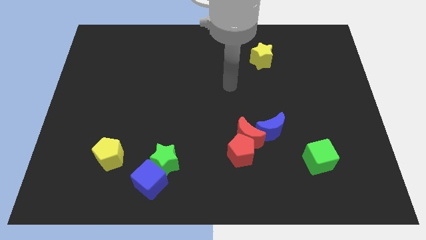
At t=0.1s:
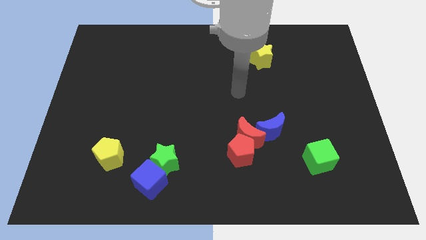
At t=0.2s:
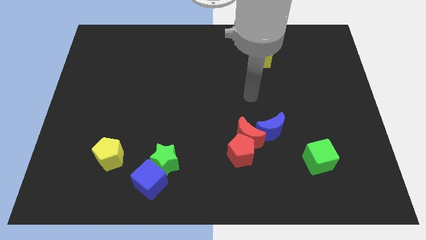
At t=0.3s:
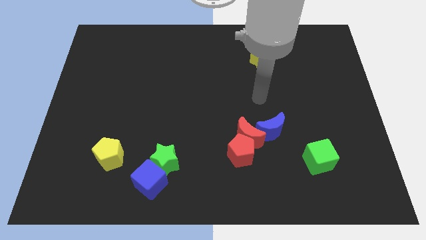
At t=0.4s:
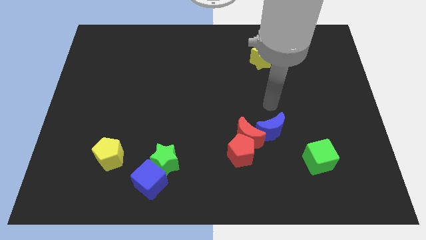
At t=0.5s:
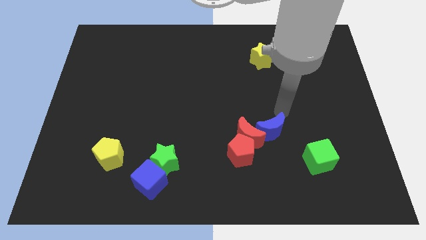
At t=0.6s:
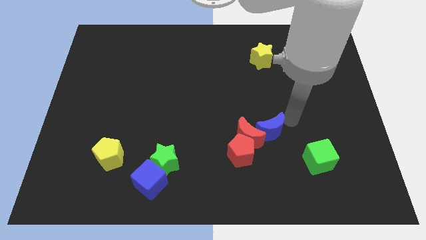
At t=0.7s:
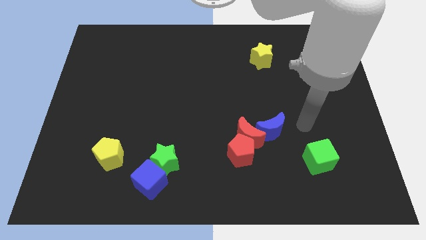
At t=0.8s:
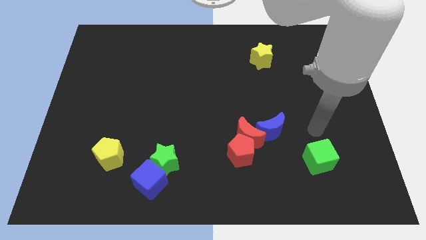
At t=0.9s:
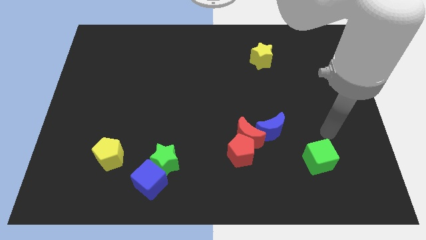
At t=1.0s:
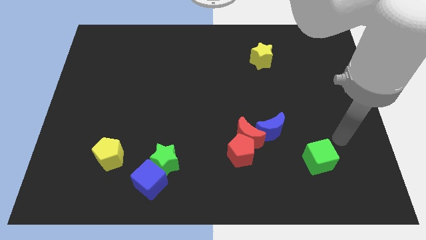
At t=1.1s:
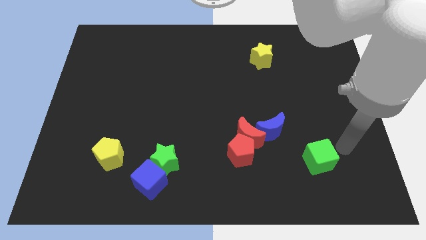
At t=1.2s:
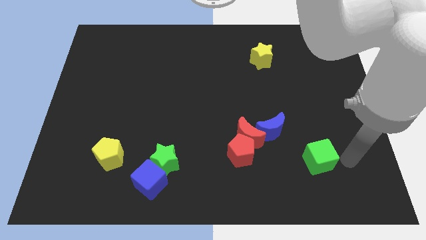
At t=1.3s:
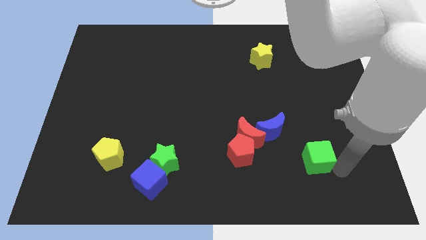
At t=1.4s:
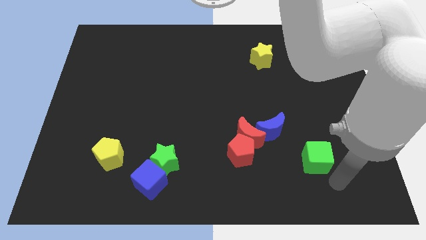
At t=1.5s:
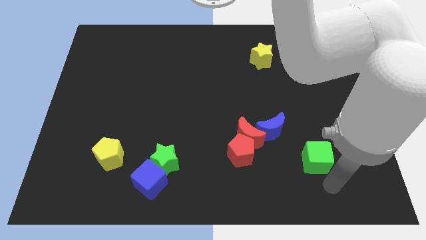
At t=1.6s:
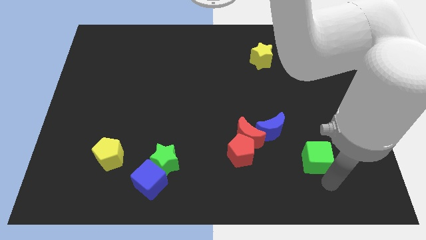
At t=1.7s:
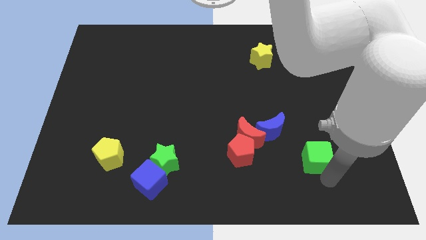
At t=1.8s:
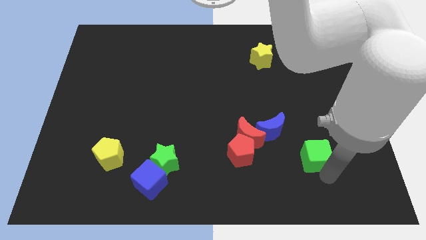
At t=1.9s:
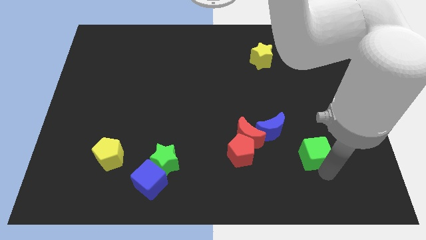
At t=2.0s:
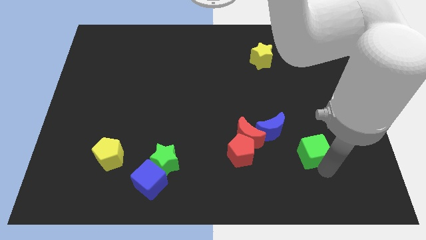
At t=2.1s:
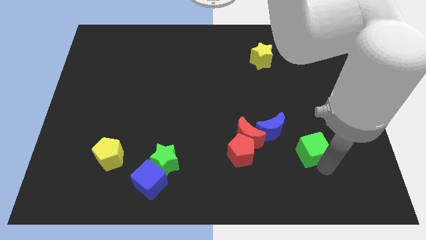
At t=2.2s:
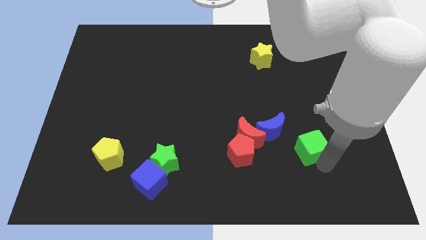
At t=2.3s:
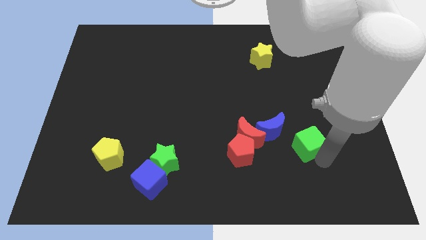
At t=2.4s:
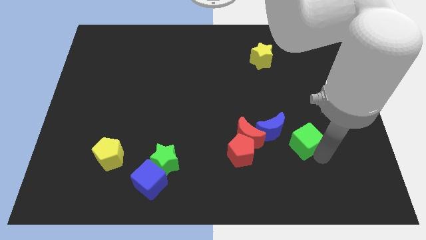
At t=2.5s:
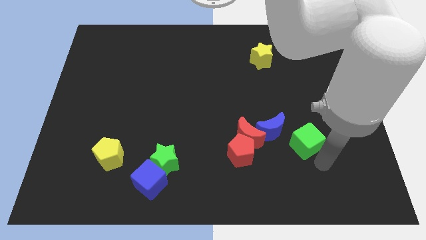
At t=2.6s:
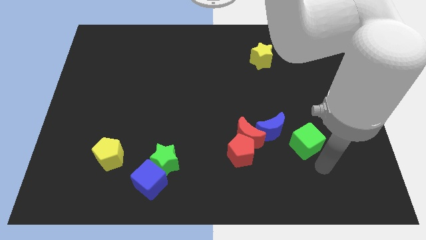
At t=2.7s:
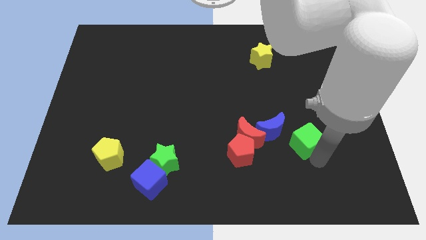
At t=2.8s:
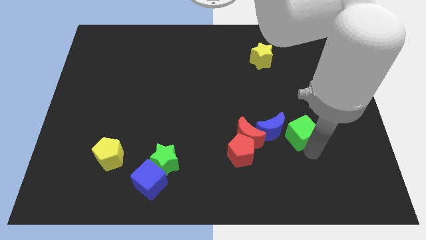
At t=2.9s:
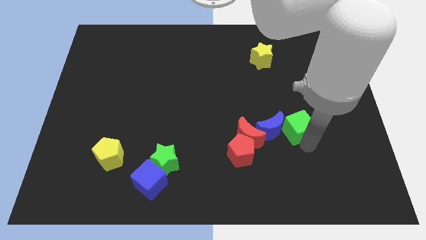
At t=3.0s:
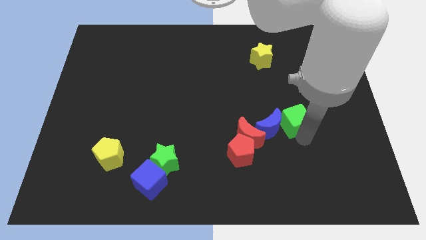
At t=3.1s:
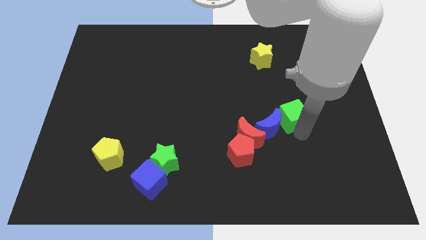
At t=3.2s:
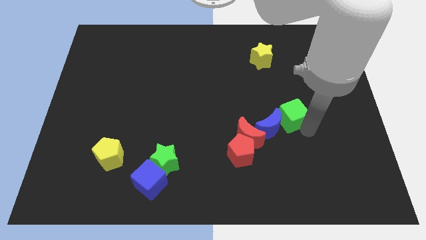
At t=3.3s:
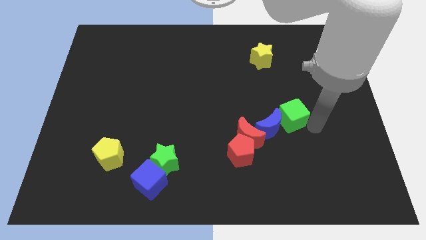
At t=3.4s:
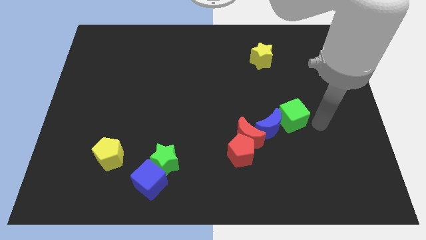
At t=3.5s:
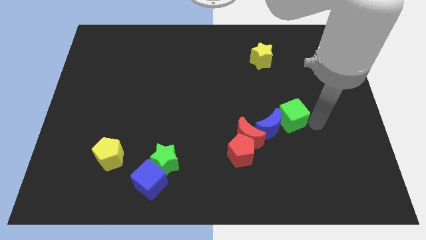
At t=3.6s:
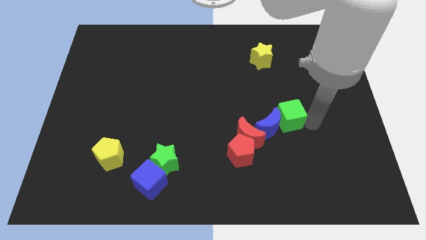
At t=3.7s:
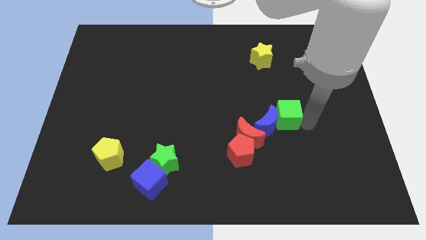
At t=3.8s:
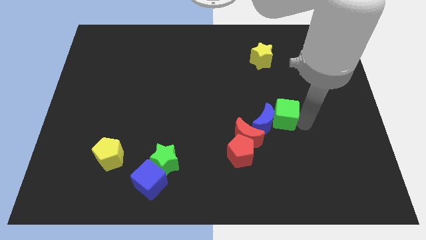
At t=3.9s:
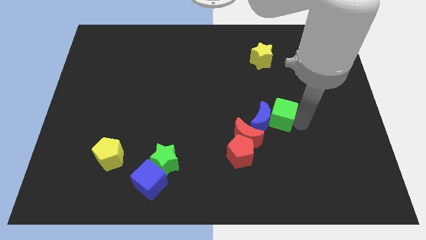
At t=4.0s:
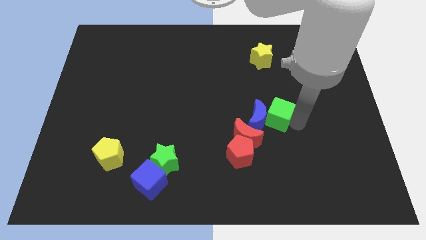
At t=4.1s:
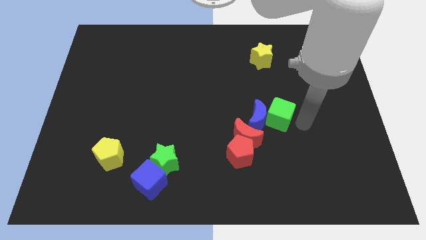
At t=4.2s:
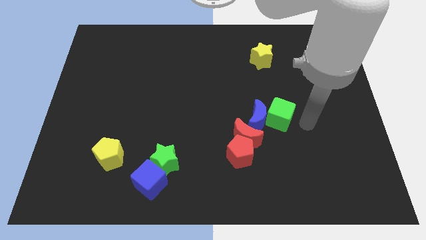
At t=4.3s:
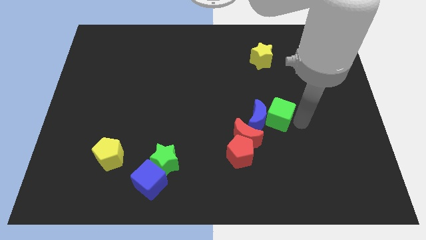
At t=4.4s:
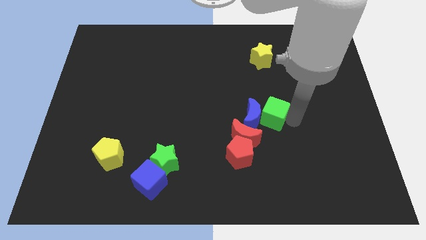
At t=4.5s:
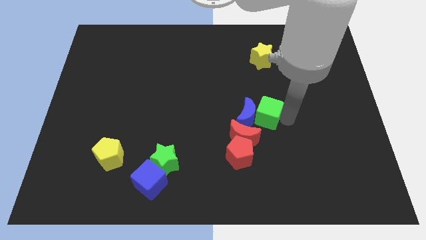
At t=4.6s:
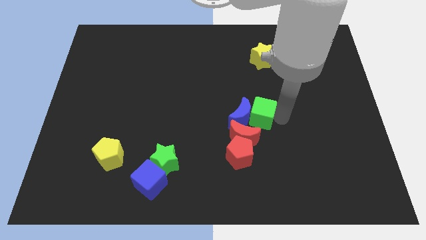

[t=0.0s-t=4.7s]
put the green cube to the center

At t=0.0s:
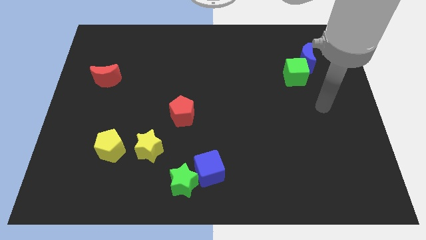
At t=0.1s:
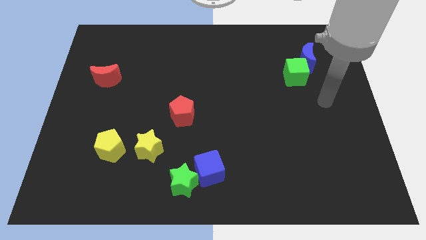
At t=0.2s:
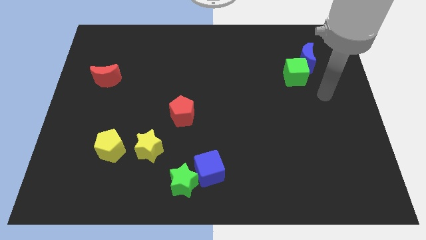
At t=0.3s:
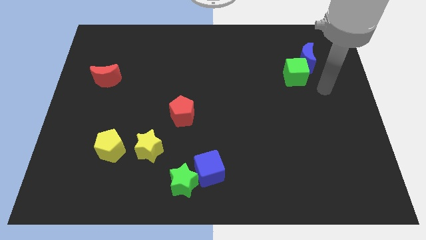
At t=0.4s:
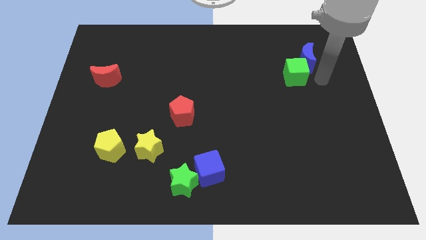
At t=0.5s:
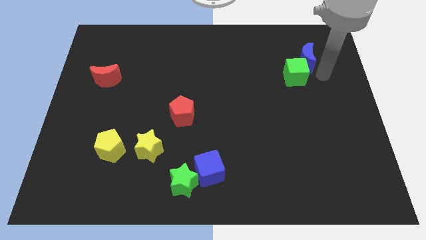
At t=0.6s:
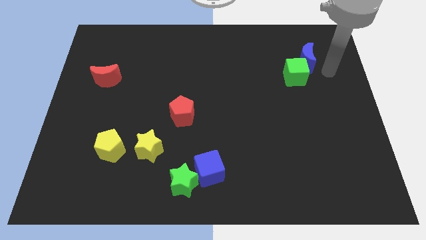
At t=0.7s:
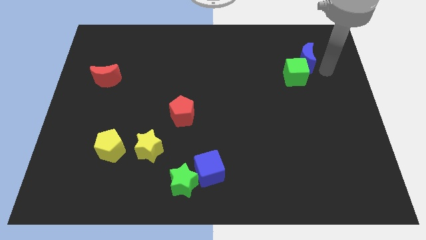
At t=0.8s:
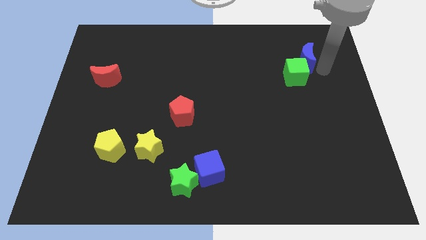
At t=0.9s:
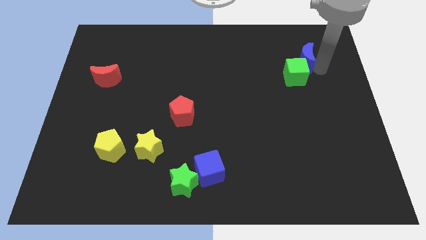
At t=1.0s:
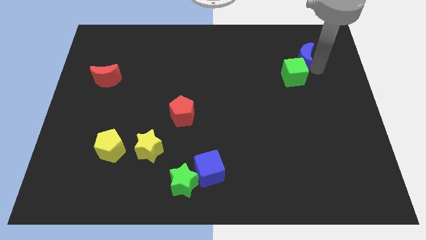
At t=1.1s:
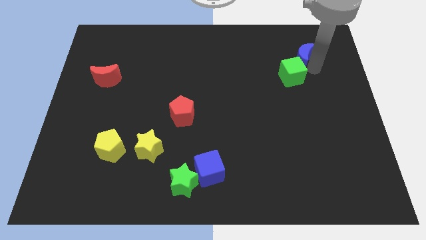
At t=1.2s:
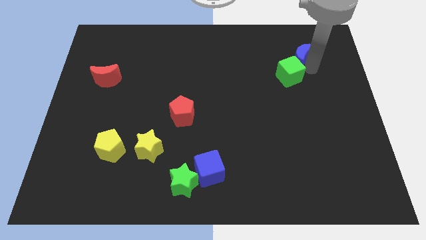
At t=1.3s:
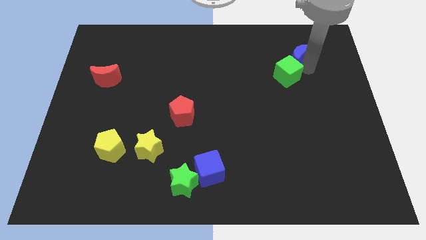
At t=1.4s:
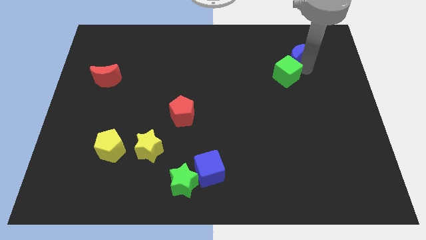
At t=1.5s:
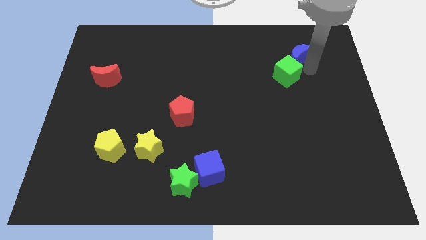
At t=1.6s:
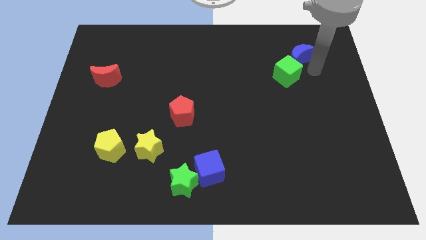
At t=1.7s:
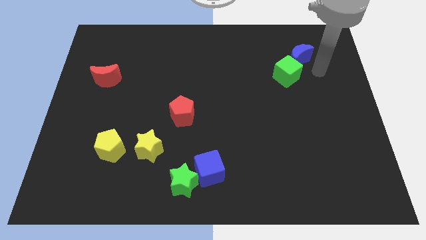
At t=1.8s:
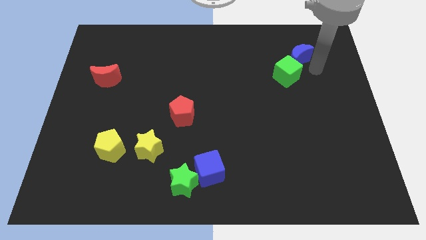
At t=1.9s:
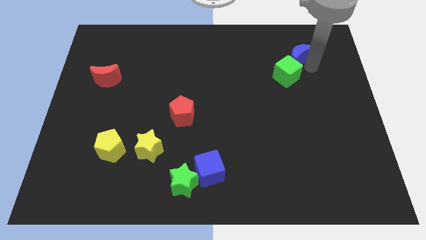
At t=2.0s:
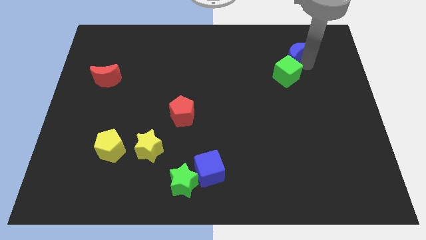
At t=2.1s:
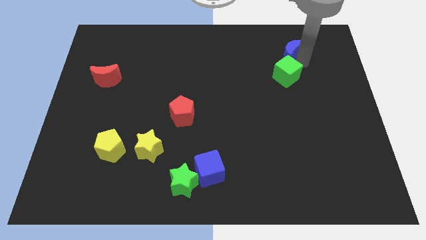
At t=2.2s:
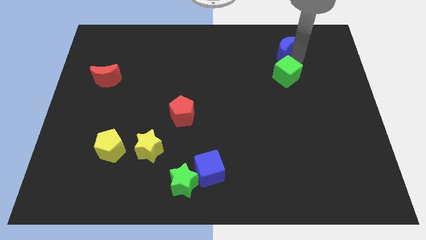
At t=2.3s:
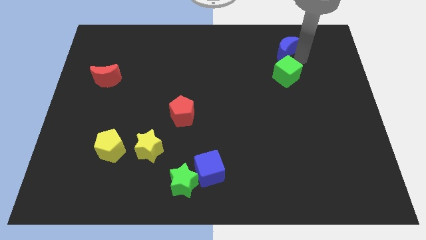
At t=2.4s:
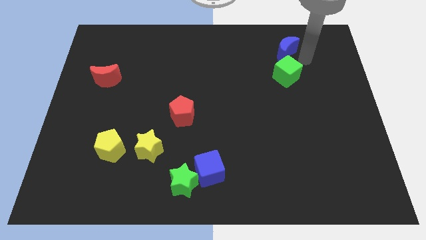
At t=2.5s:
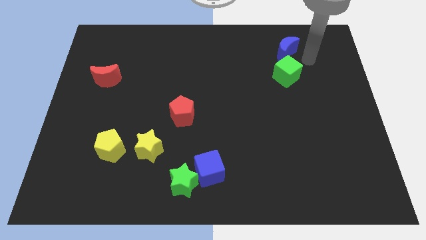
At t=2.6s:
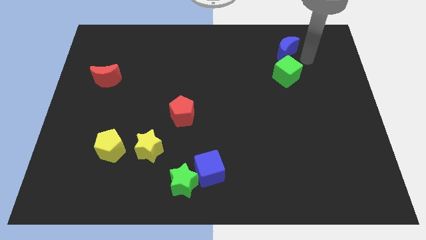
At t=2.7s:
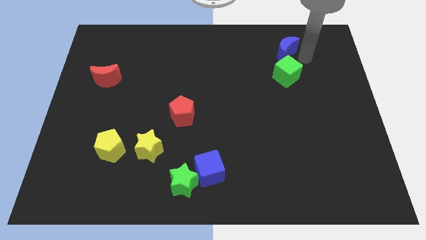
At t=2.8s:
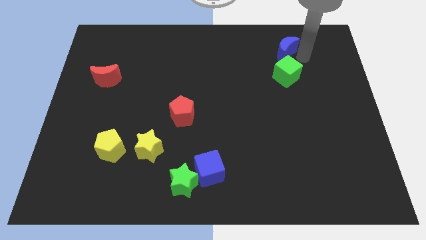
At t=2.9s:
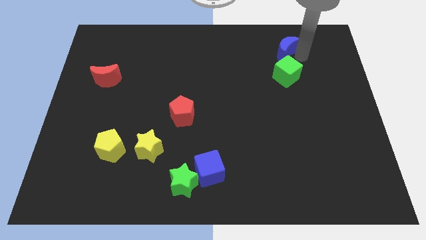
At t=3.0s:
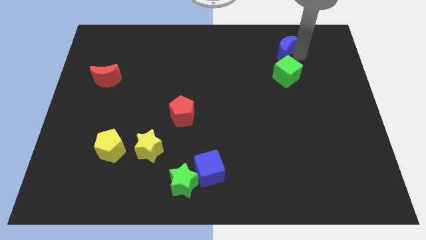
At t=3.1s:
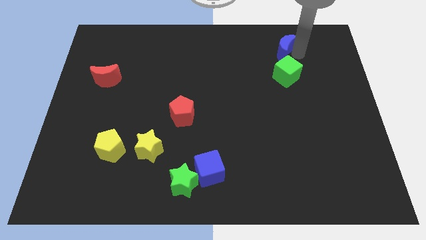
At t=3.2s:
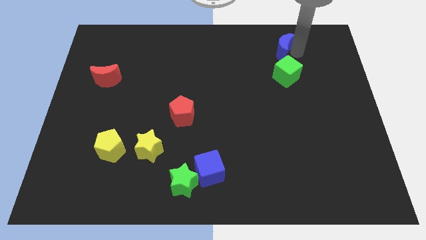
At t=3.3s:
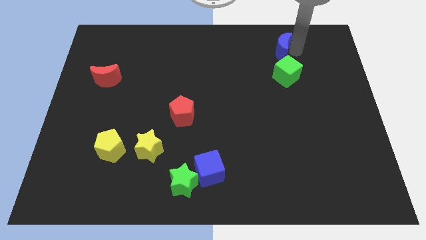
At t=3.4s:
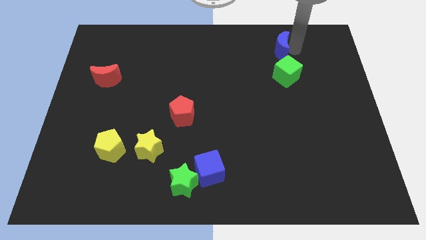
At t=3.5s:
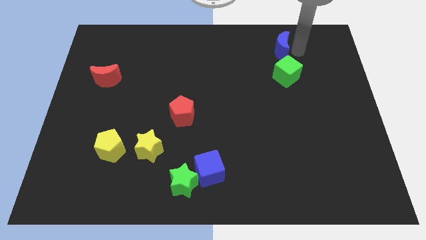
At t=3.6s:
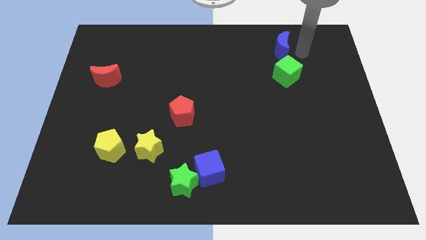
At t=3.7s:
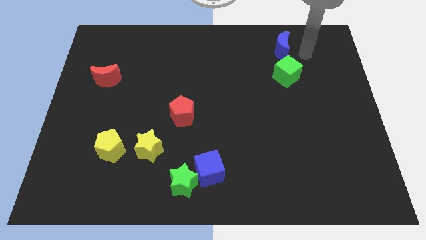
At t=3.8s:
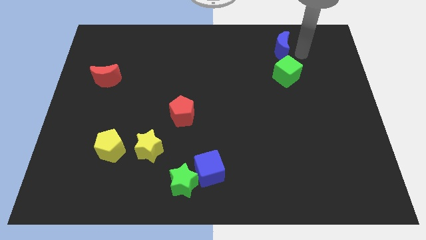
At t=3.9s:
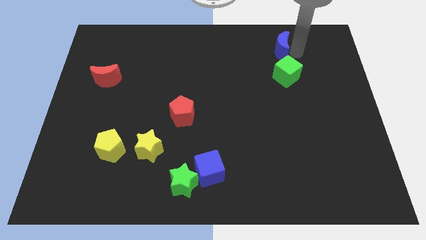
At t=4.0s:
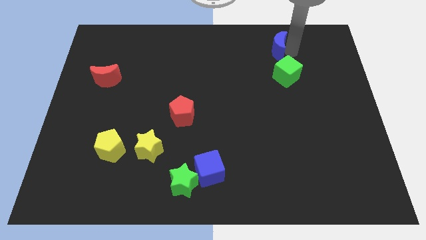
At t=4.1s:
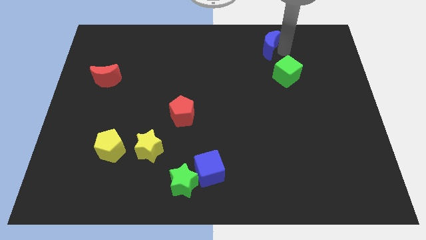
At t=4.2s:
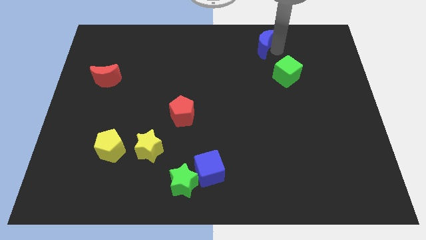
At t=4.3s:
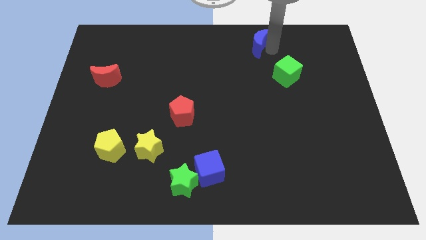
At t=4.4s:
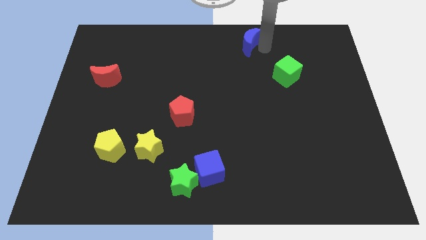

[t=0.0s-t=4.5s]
slide the blue moon to the top
